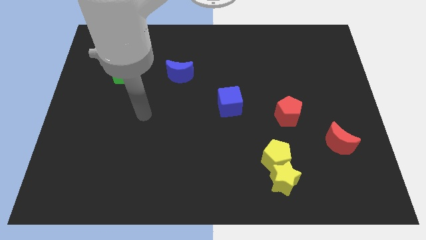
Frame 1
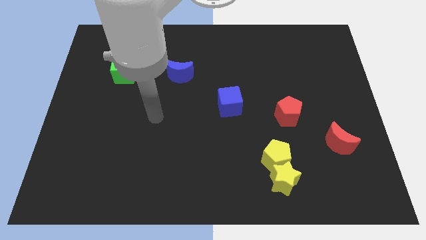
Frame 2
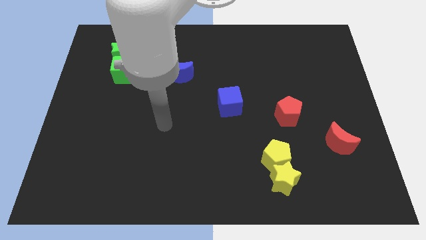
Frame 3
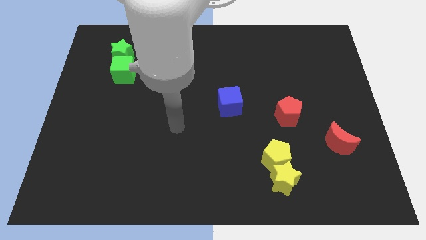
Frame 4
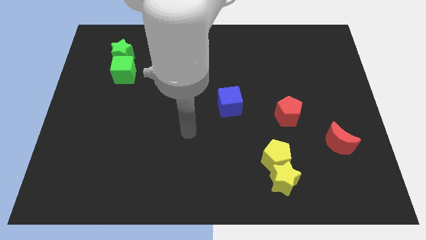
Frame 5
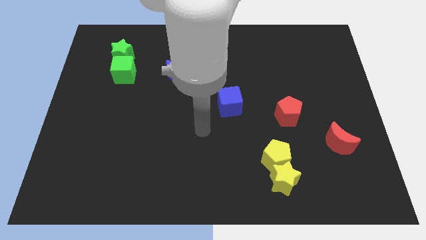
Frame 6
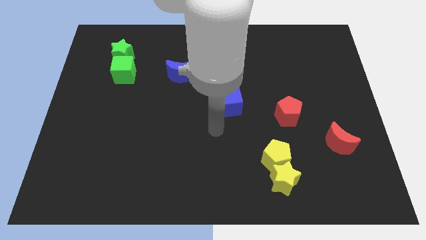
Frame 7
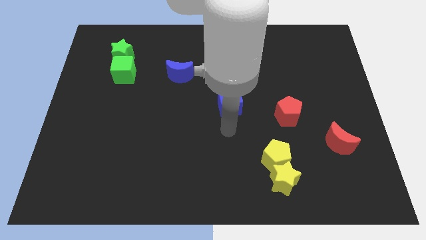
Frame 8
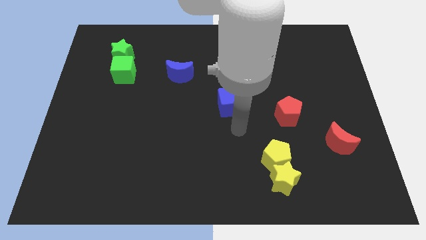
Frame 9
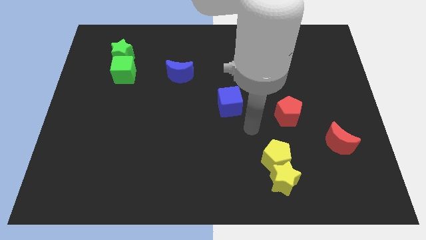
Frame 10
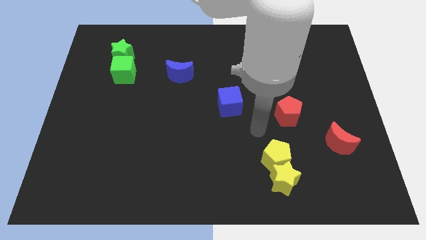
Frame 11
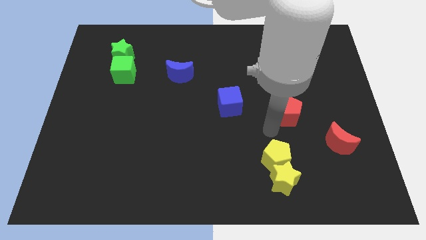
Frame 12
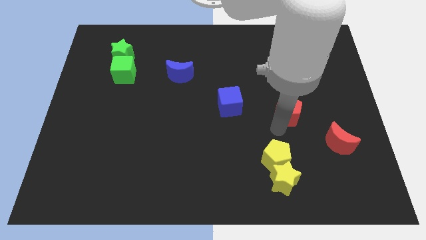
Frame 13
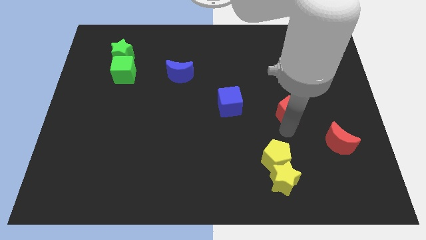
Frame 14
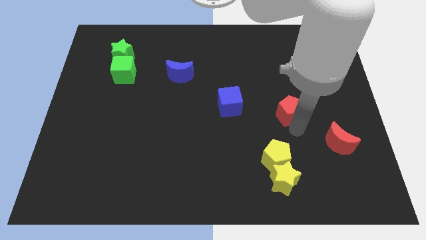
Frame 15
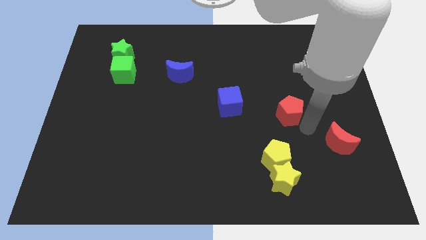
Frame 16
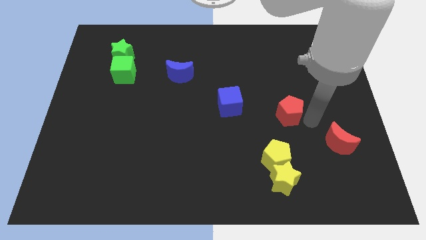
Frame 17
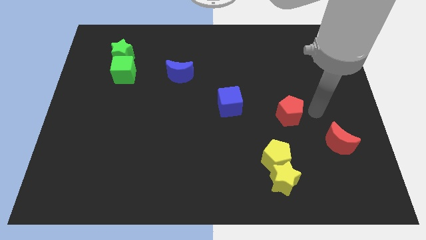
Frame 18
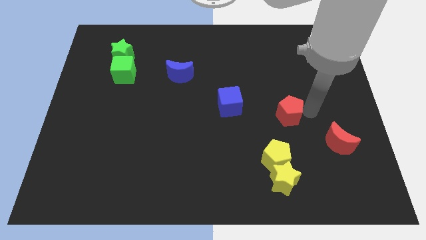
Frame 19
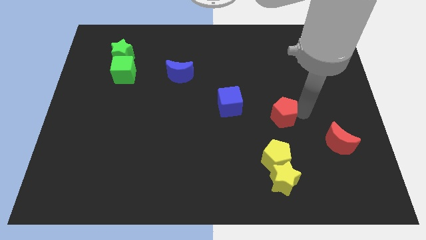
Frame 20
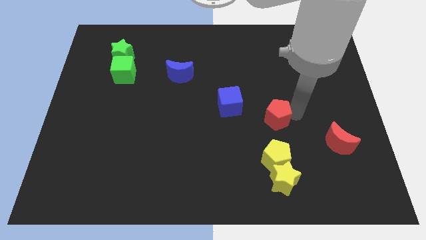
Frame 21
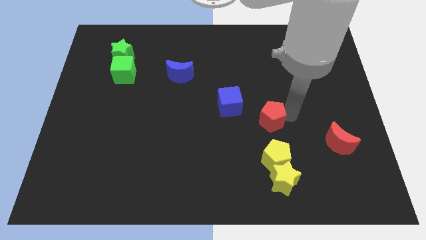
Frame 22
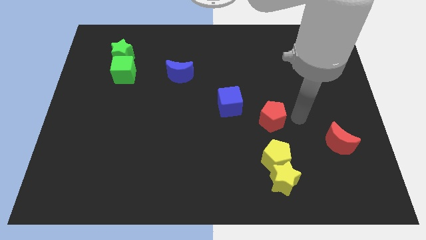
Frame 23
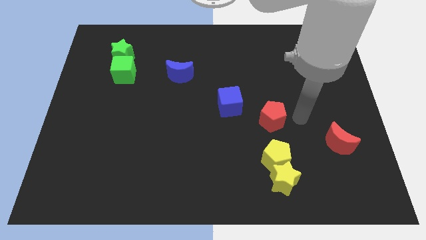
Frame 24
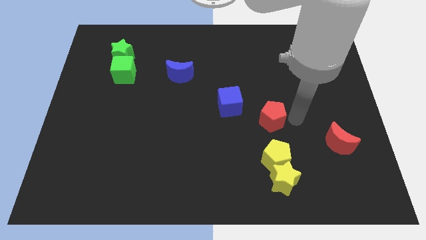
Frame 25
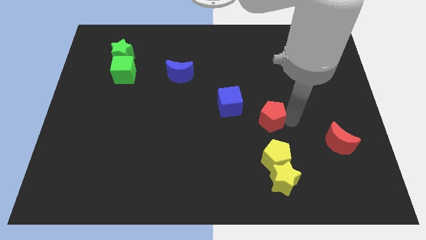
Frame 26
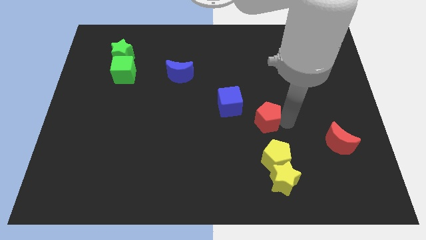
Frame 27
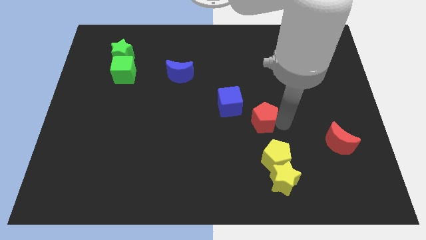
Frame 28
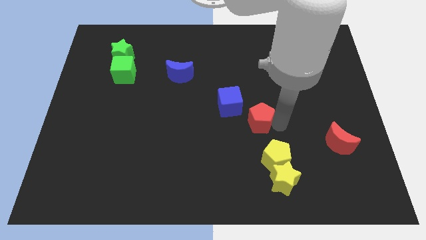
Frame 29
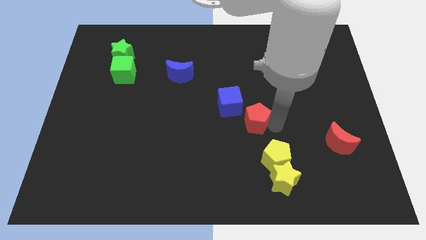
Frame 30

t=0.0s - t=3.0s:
move the red pentagon to the left slightly

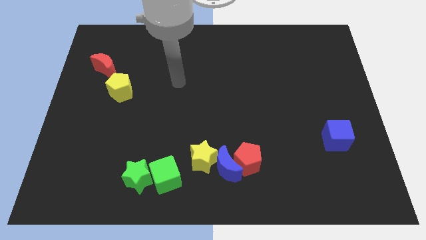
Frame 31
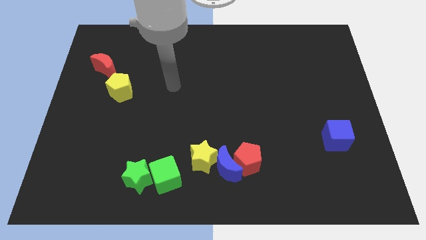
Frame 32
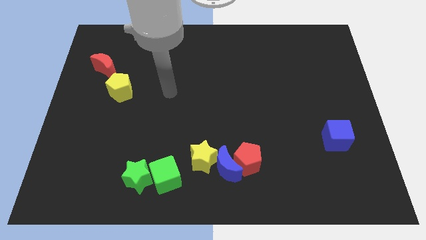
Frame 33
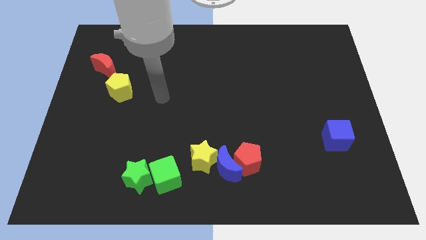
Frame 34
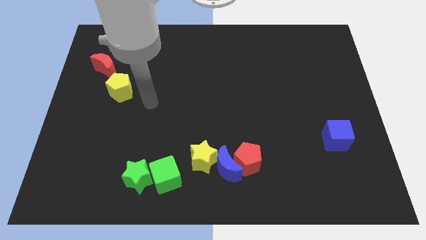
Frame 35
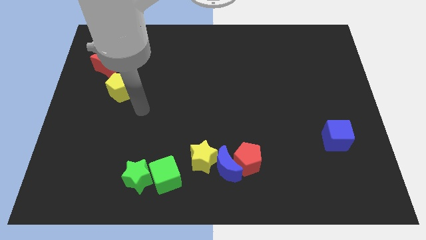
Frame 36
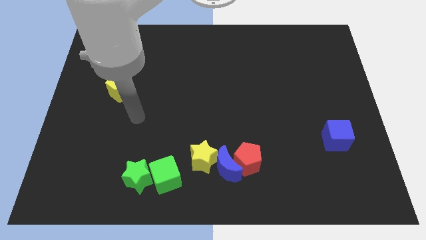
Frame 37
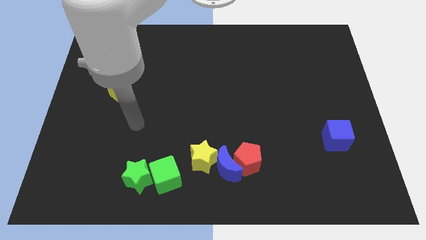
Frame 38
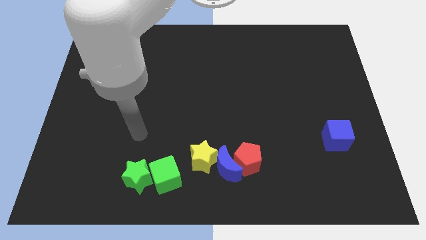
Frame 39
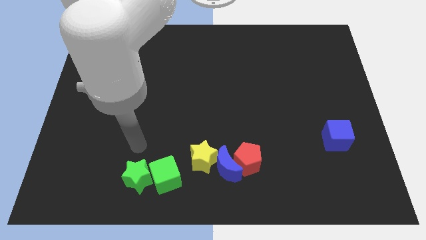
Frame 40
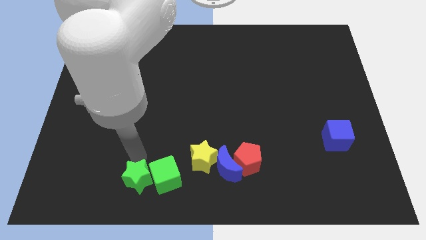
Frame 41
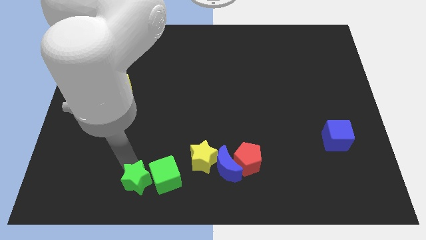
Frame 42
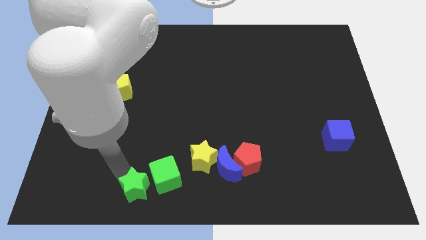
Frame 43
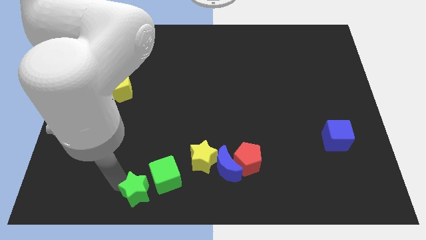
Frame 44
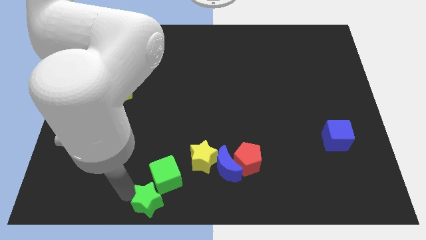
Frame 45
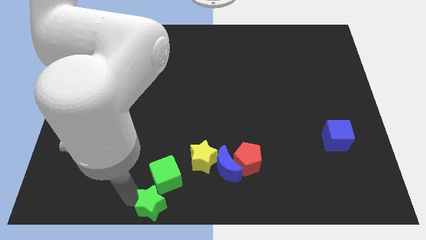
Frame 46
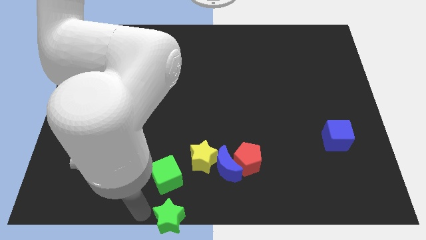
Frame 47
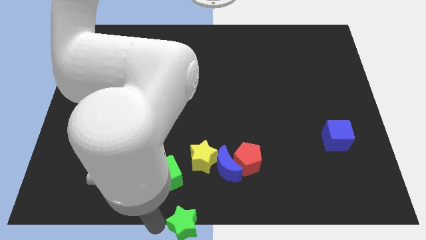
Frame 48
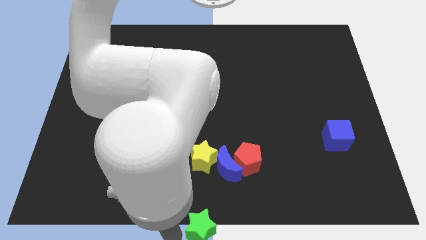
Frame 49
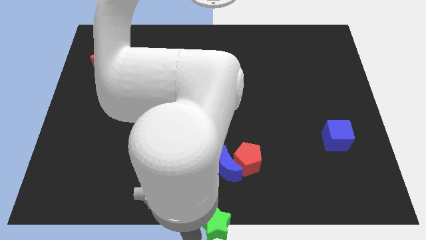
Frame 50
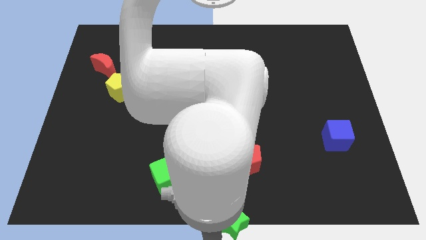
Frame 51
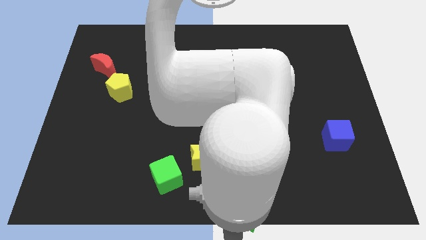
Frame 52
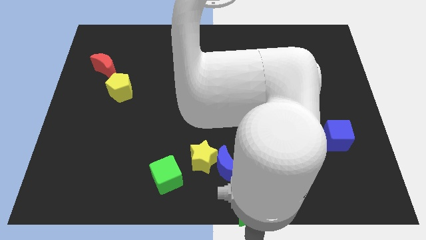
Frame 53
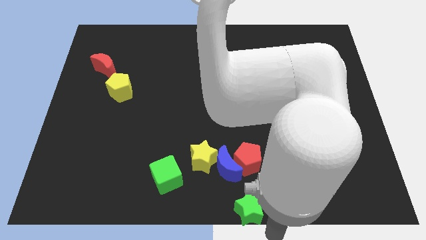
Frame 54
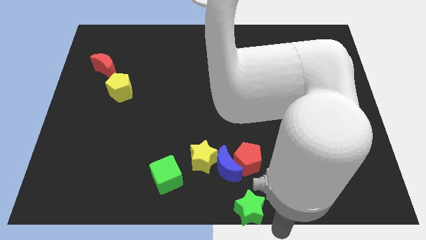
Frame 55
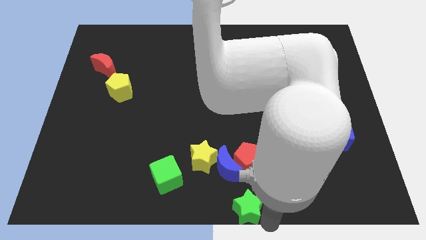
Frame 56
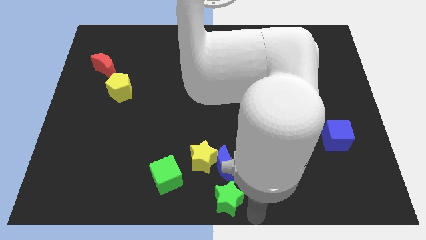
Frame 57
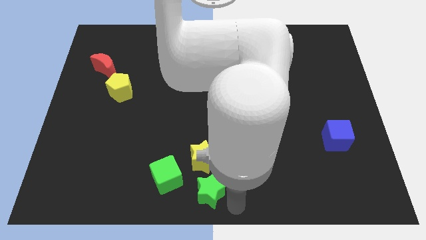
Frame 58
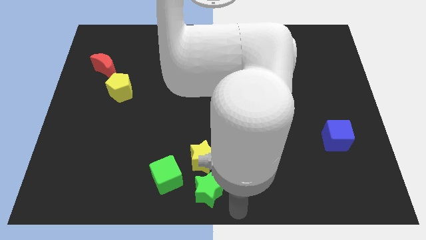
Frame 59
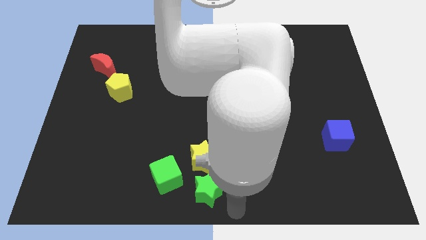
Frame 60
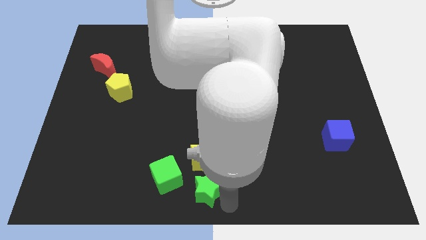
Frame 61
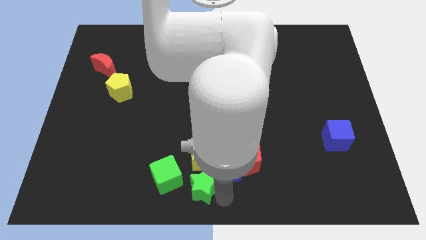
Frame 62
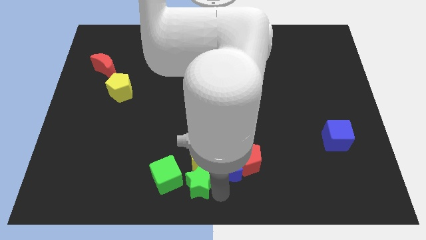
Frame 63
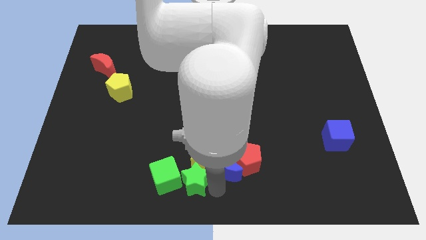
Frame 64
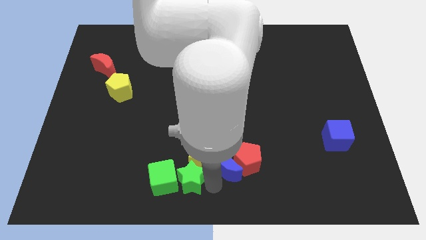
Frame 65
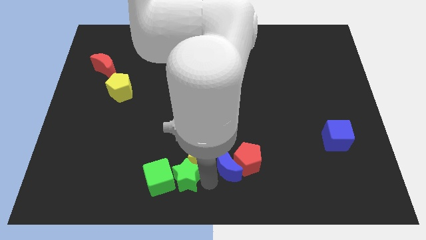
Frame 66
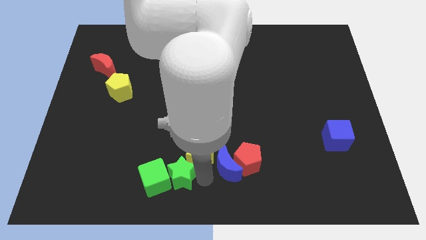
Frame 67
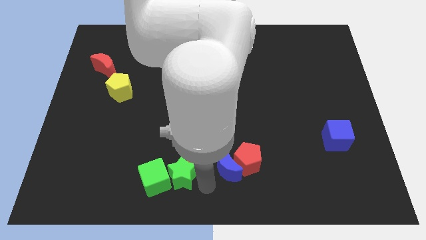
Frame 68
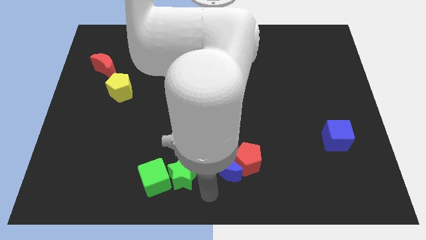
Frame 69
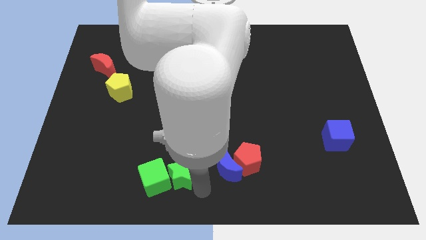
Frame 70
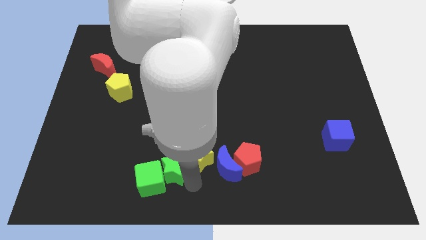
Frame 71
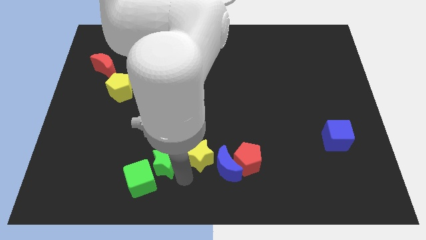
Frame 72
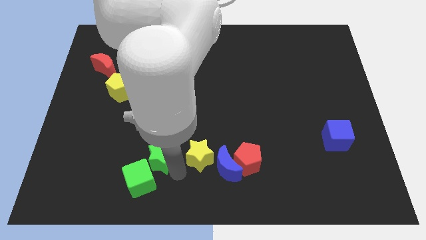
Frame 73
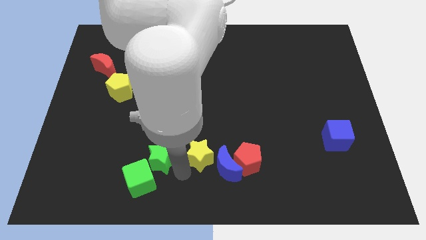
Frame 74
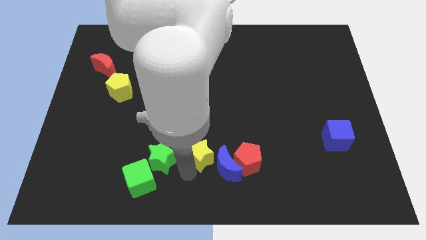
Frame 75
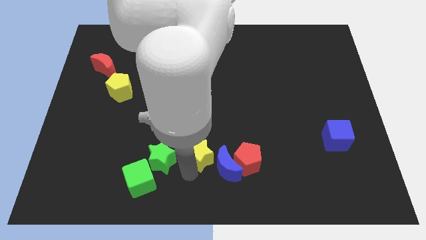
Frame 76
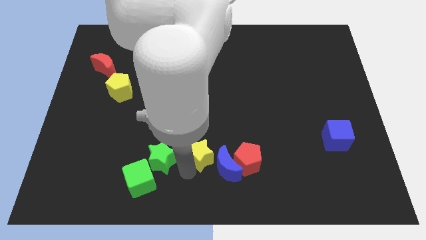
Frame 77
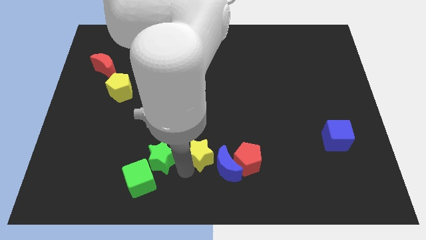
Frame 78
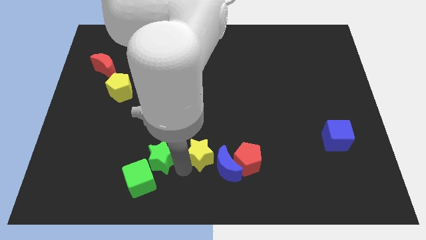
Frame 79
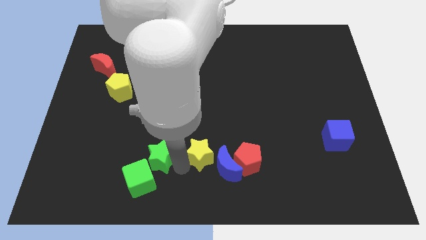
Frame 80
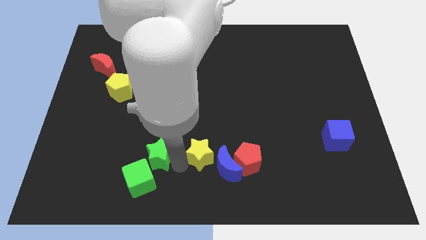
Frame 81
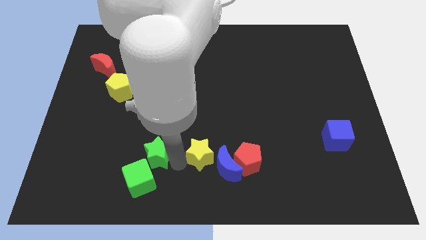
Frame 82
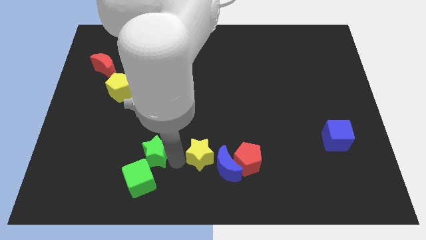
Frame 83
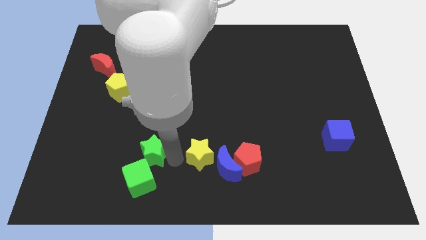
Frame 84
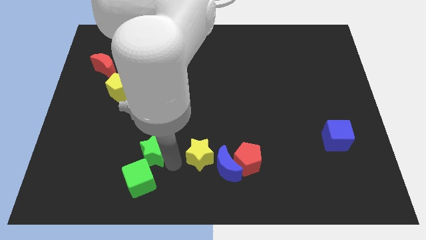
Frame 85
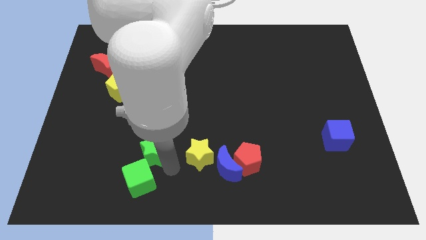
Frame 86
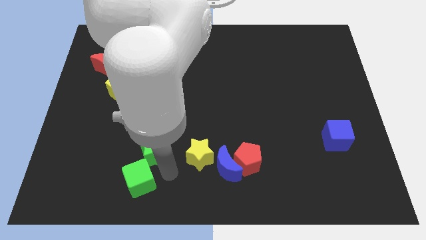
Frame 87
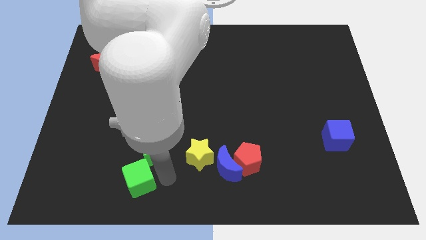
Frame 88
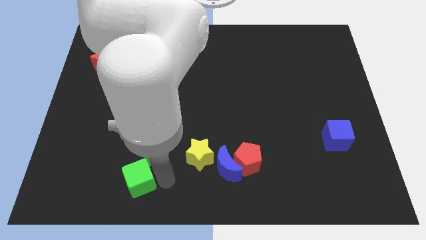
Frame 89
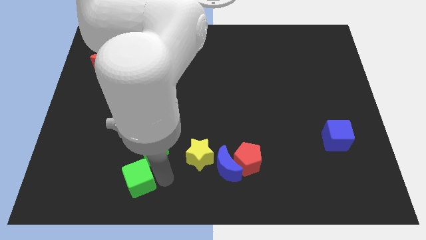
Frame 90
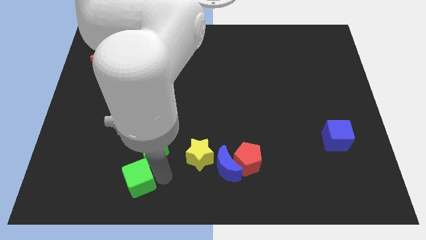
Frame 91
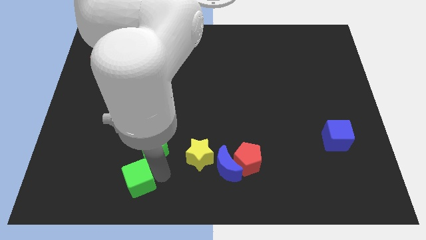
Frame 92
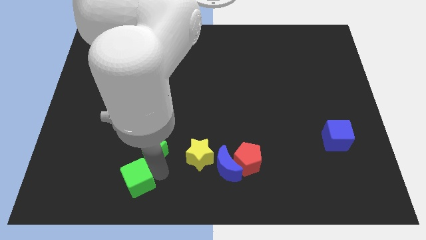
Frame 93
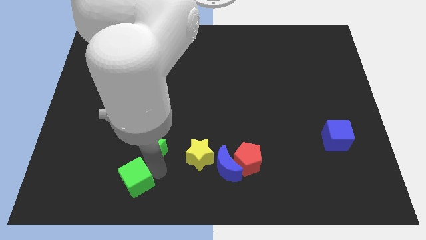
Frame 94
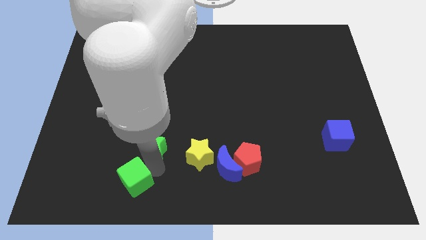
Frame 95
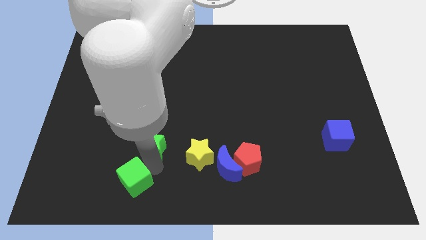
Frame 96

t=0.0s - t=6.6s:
slightly push the green star up
